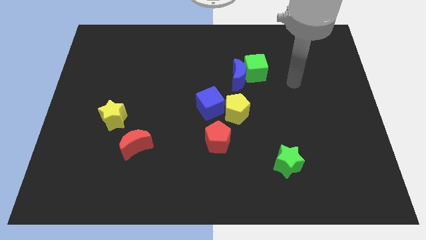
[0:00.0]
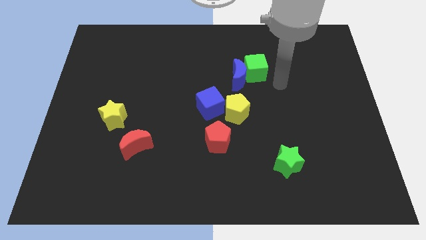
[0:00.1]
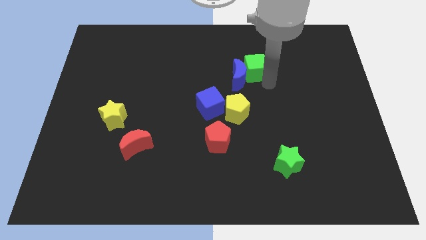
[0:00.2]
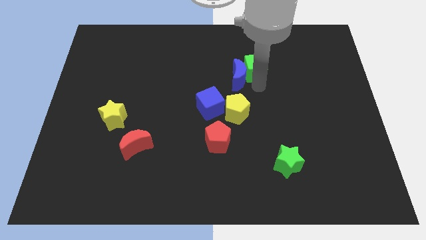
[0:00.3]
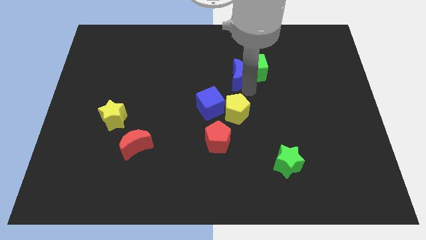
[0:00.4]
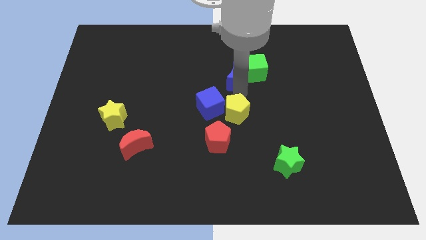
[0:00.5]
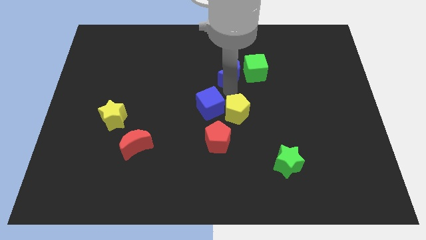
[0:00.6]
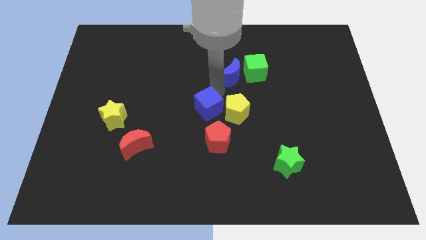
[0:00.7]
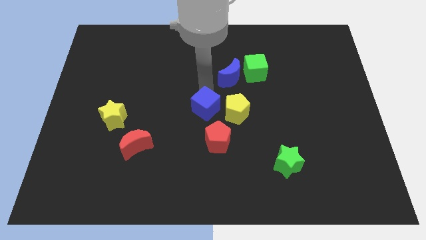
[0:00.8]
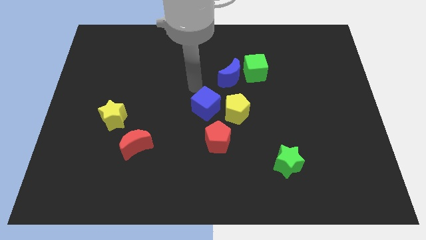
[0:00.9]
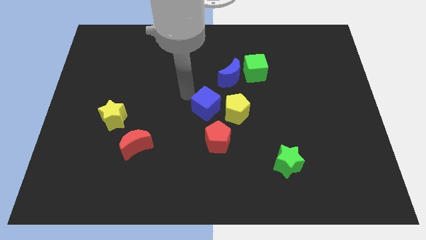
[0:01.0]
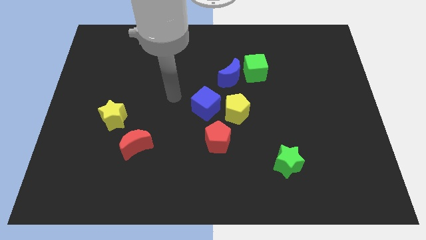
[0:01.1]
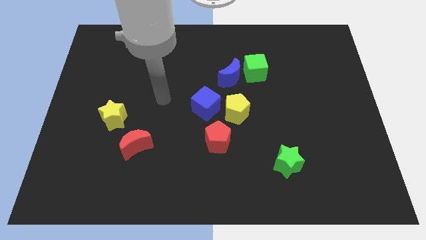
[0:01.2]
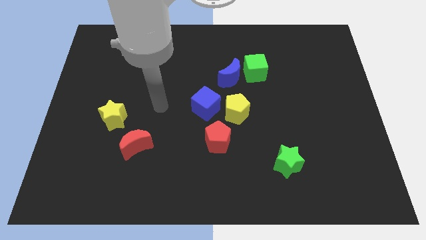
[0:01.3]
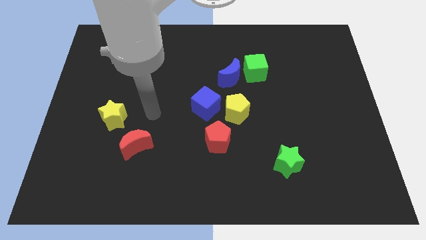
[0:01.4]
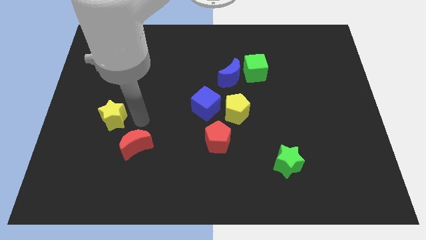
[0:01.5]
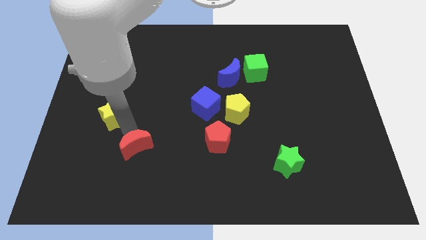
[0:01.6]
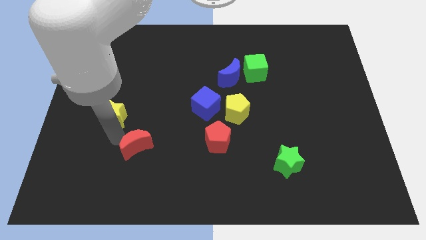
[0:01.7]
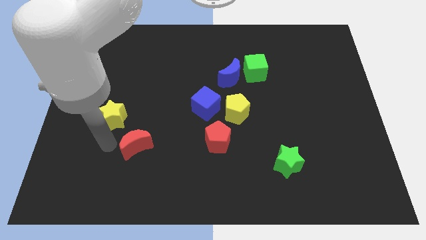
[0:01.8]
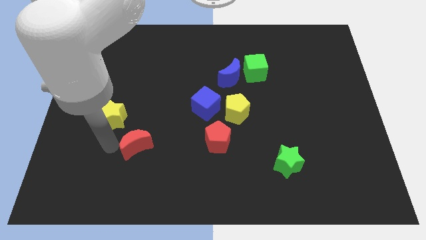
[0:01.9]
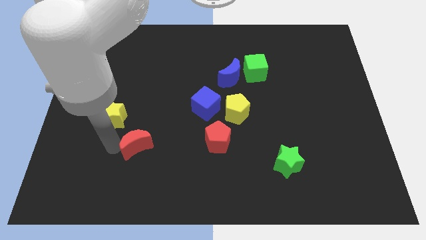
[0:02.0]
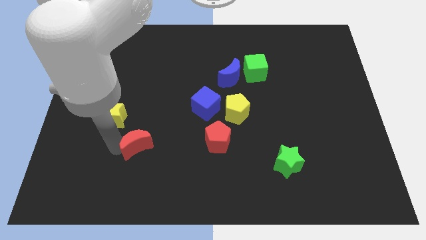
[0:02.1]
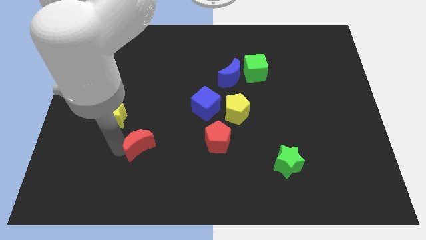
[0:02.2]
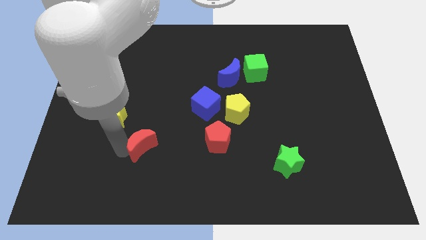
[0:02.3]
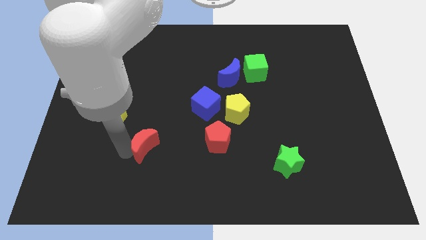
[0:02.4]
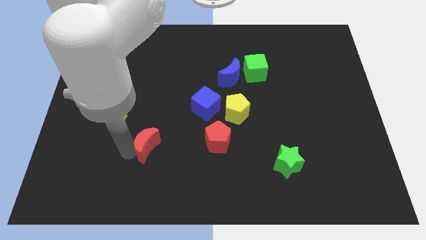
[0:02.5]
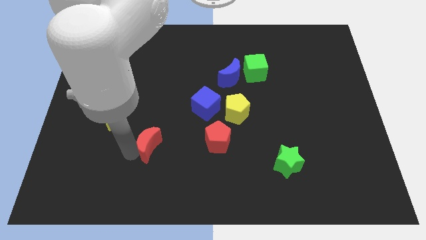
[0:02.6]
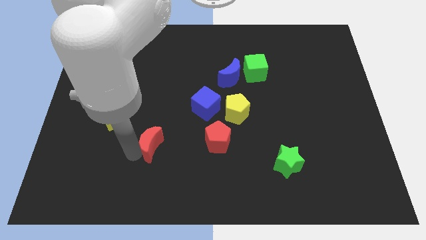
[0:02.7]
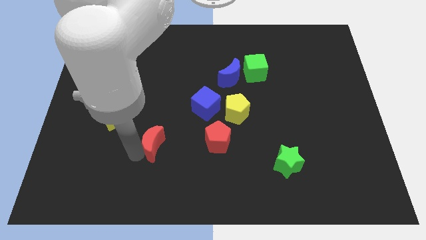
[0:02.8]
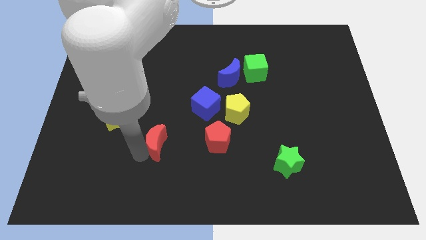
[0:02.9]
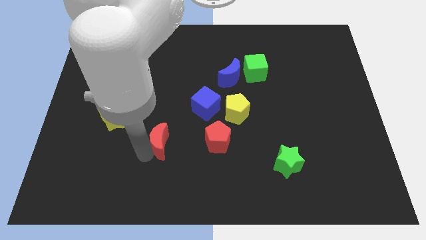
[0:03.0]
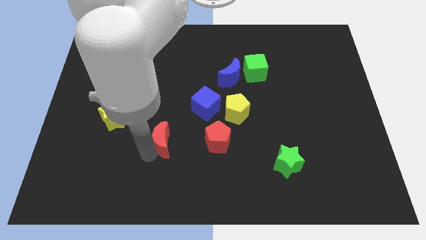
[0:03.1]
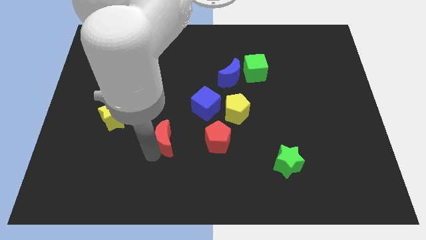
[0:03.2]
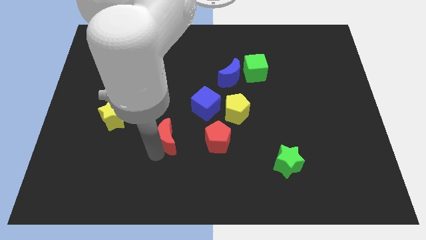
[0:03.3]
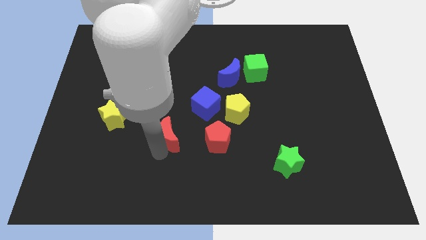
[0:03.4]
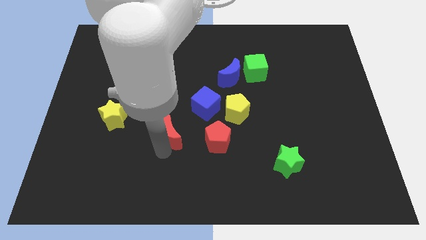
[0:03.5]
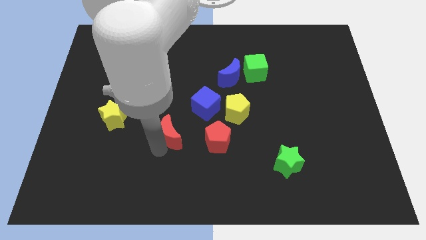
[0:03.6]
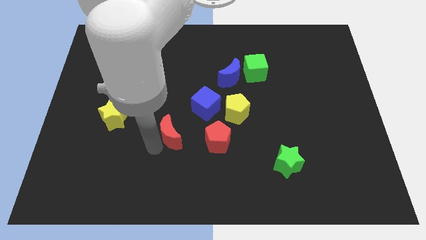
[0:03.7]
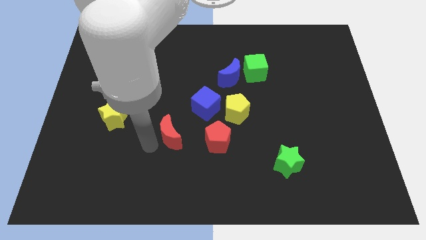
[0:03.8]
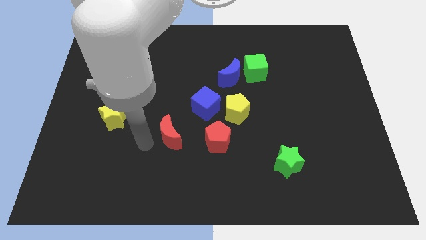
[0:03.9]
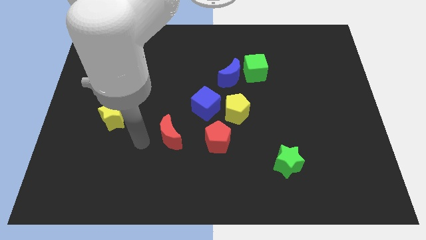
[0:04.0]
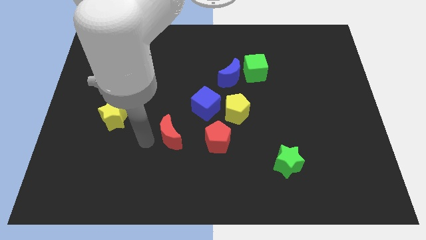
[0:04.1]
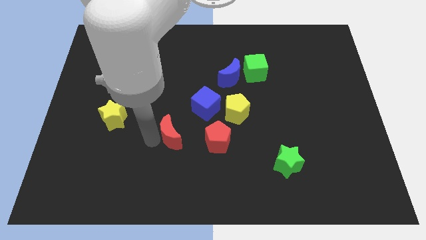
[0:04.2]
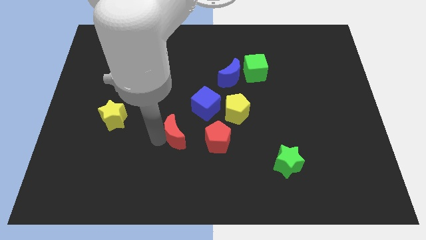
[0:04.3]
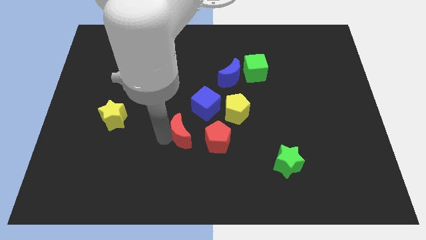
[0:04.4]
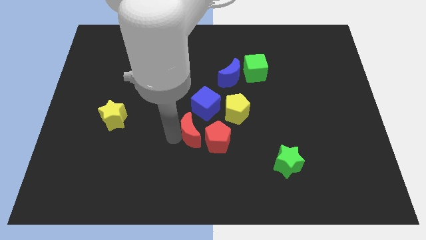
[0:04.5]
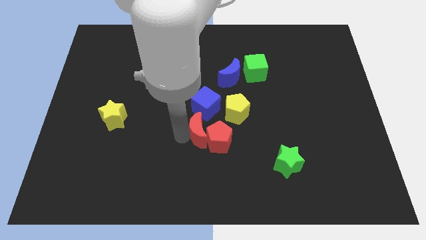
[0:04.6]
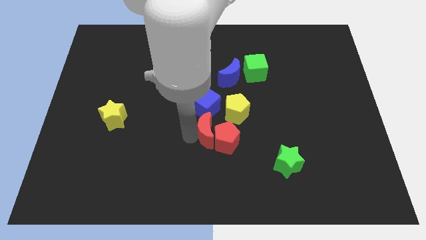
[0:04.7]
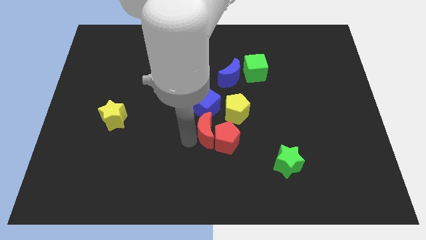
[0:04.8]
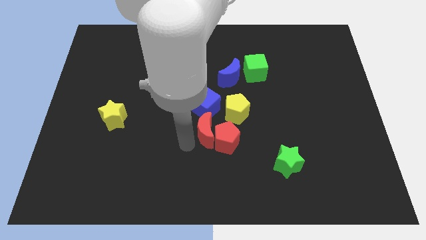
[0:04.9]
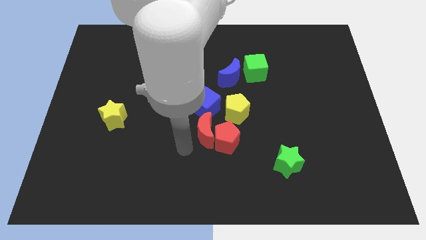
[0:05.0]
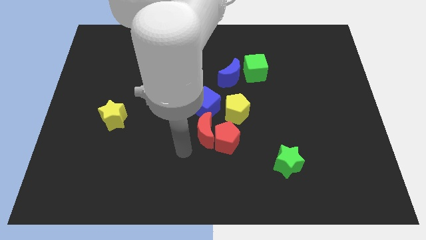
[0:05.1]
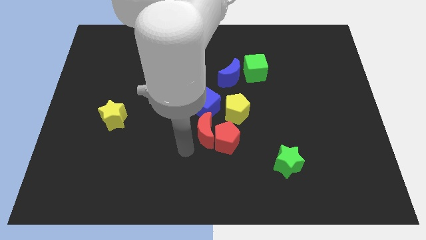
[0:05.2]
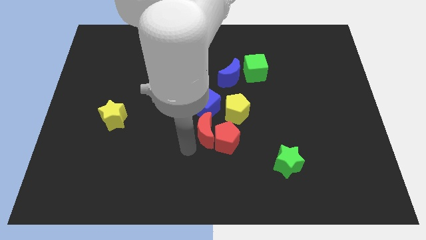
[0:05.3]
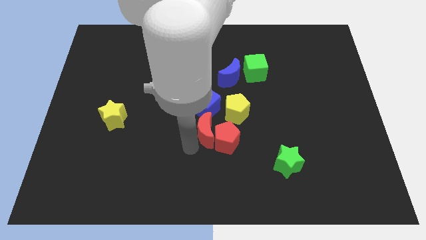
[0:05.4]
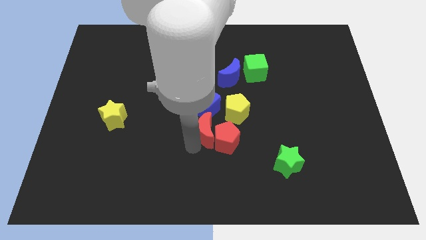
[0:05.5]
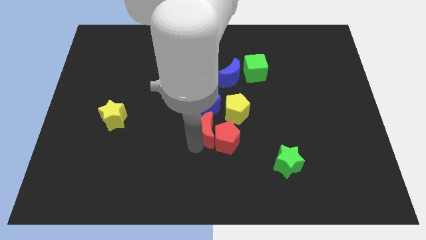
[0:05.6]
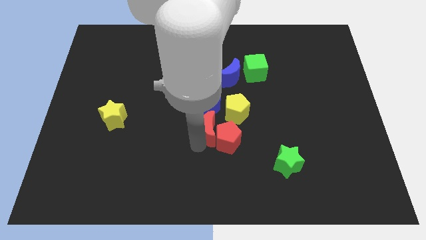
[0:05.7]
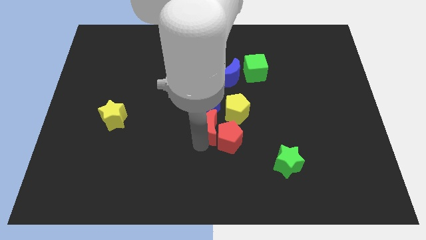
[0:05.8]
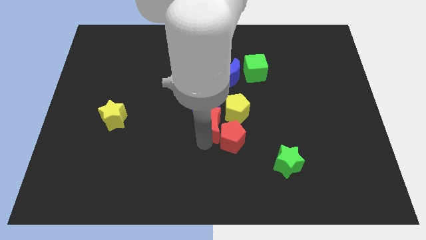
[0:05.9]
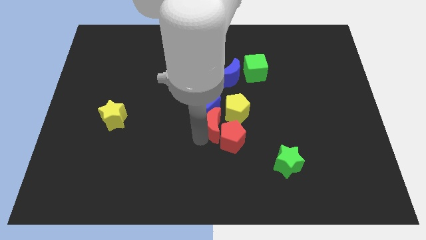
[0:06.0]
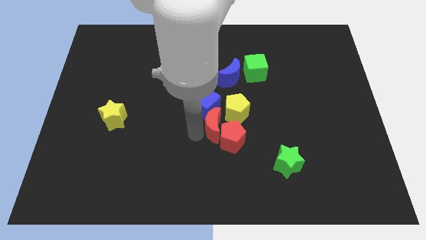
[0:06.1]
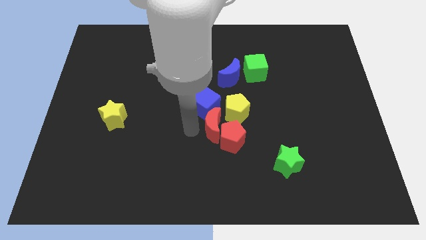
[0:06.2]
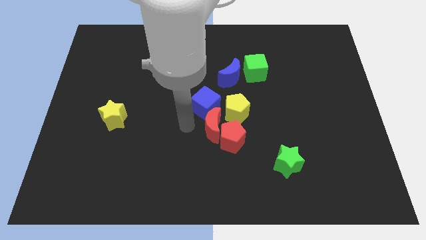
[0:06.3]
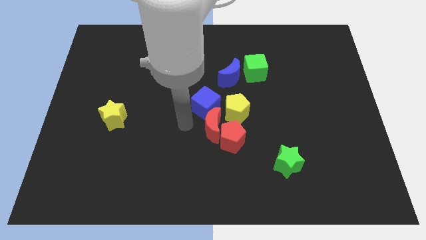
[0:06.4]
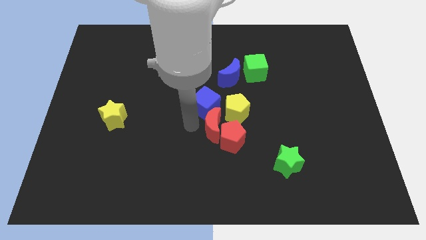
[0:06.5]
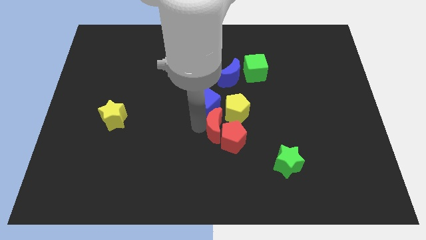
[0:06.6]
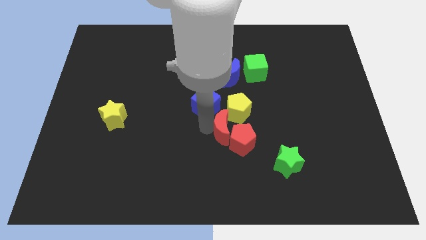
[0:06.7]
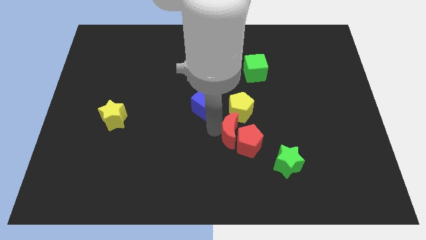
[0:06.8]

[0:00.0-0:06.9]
slide the red moon right

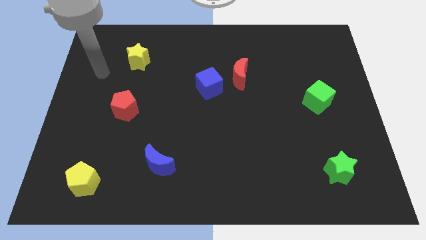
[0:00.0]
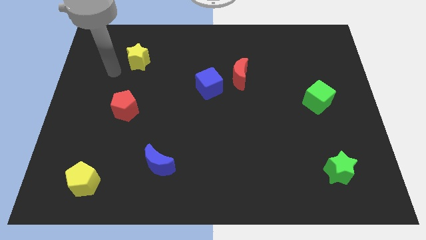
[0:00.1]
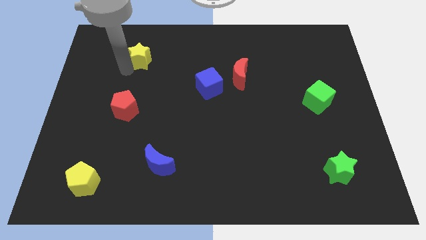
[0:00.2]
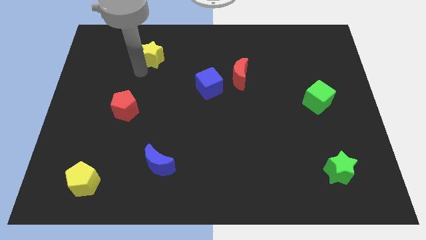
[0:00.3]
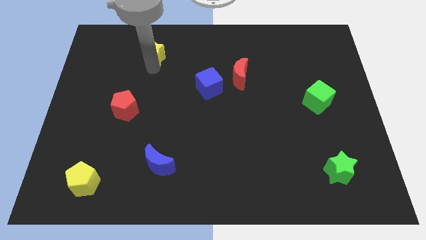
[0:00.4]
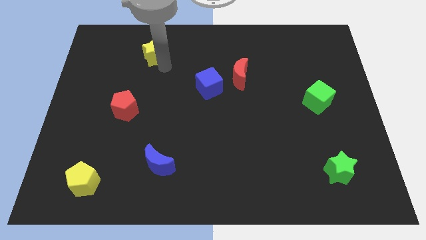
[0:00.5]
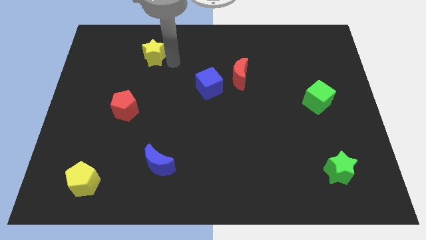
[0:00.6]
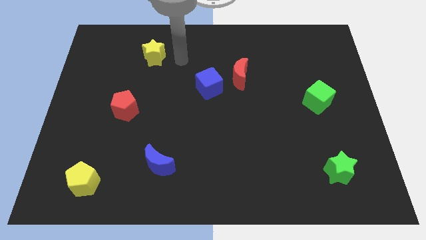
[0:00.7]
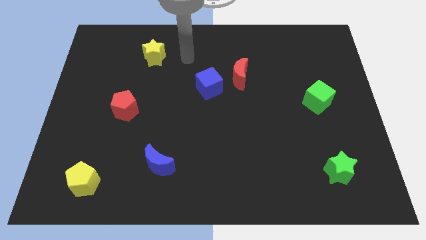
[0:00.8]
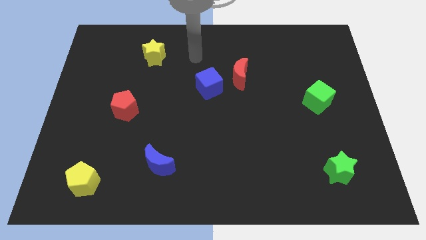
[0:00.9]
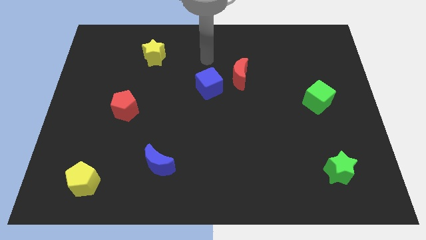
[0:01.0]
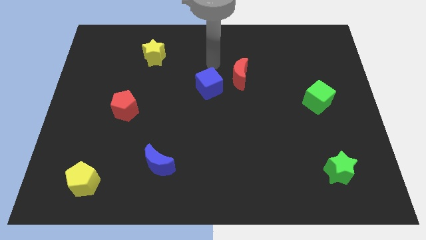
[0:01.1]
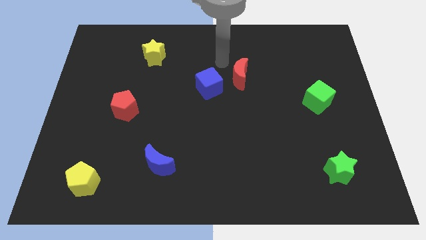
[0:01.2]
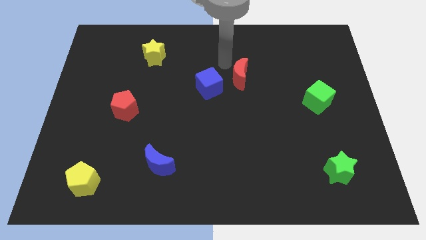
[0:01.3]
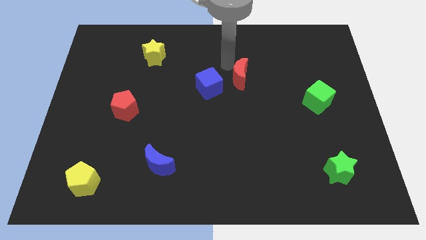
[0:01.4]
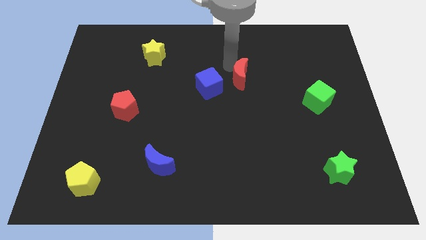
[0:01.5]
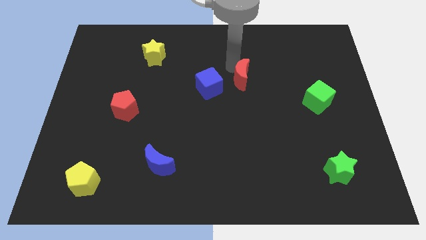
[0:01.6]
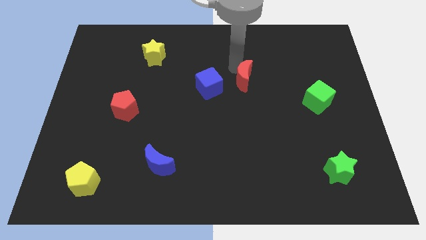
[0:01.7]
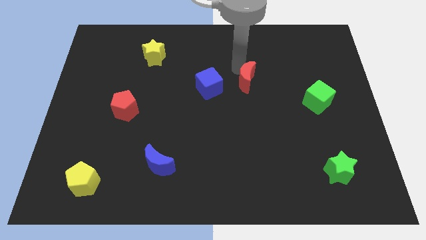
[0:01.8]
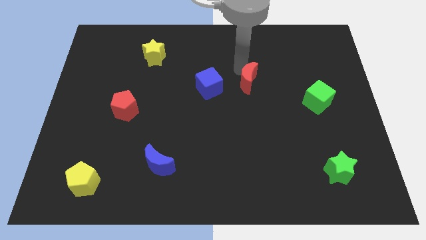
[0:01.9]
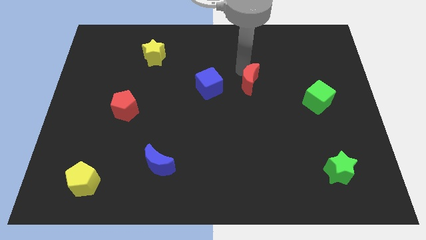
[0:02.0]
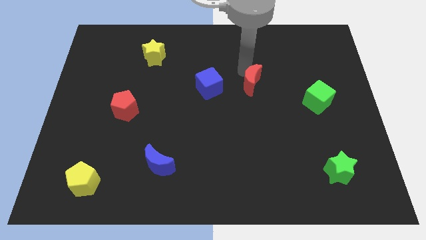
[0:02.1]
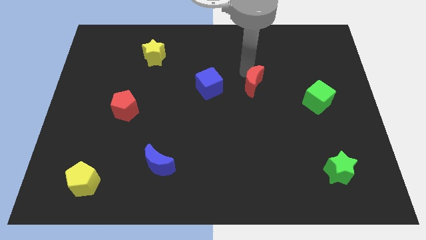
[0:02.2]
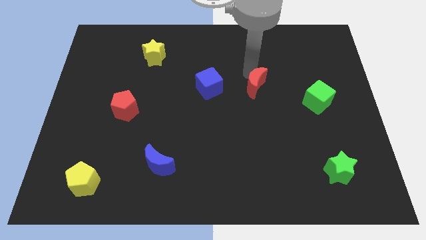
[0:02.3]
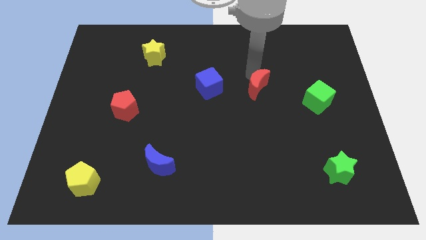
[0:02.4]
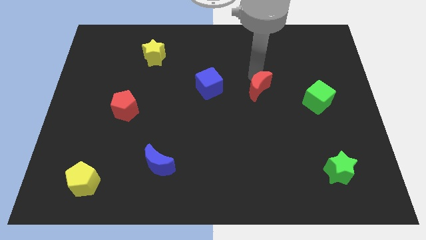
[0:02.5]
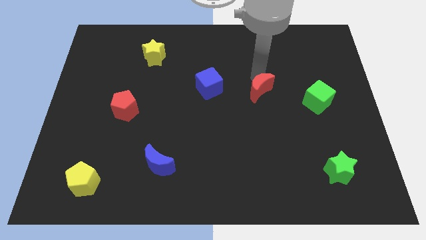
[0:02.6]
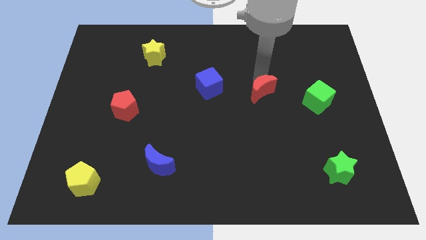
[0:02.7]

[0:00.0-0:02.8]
move the red moon down and then right somewhat
